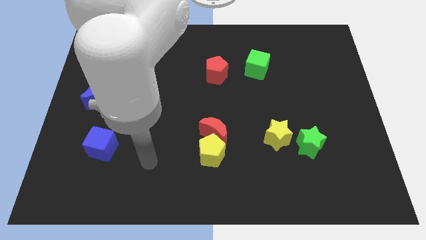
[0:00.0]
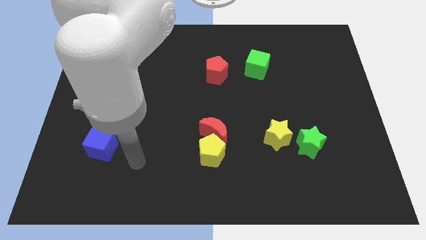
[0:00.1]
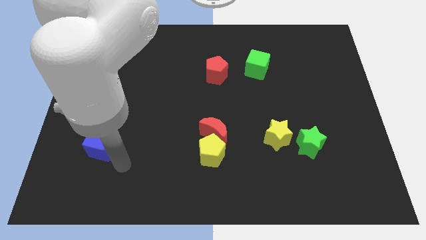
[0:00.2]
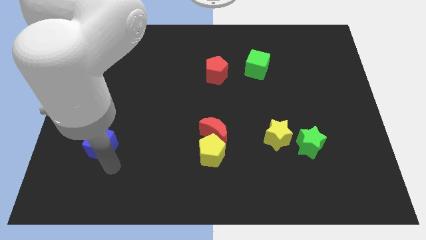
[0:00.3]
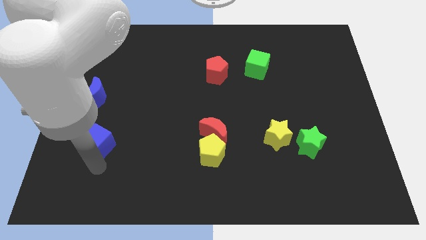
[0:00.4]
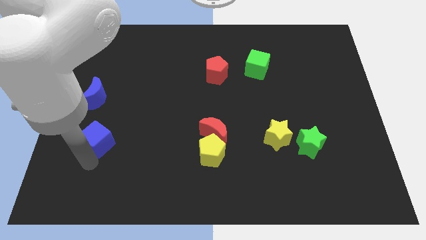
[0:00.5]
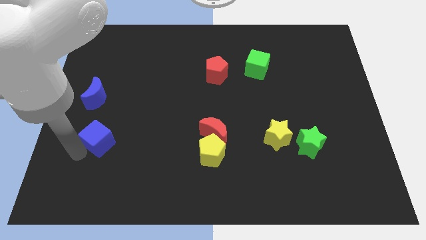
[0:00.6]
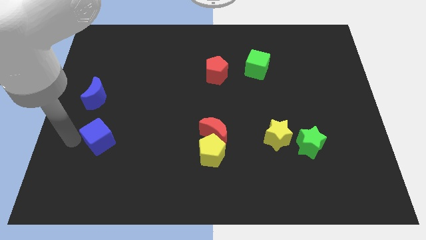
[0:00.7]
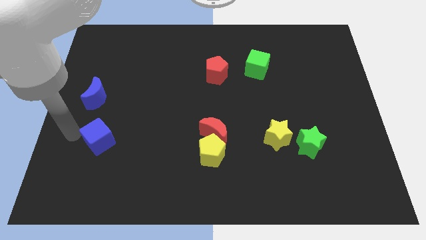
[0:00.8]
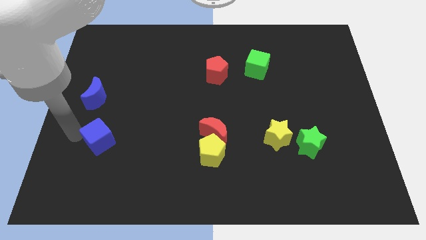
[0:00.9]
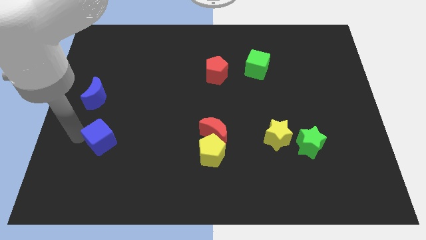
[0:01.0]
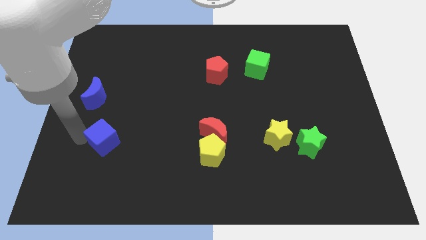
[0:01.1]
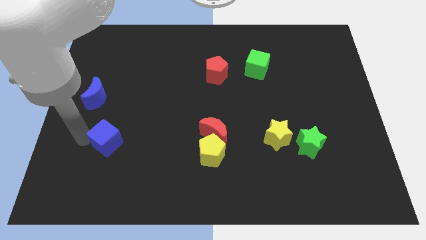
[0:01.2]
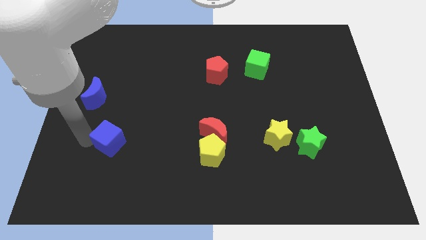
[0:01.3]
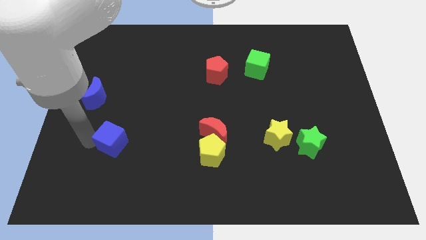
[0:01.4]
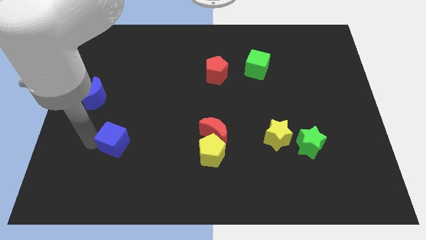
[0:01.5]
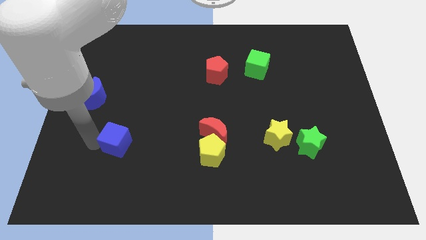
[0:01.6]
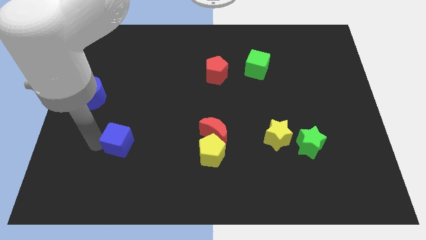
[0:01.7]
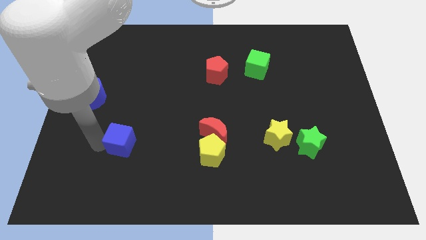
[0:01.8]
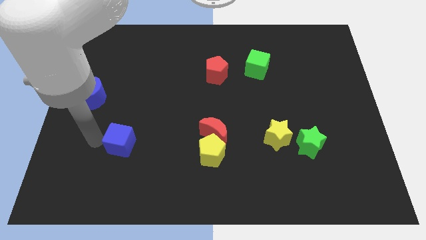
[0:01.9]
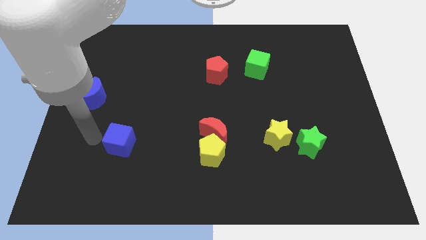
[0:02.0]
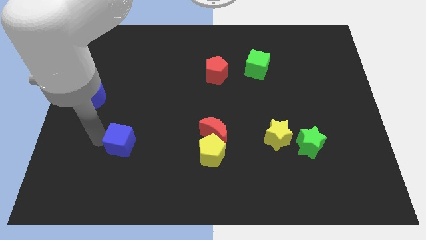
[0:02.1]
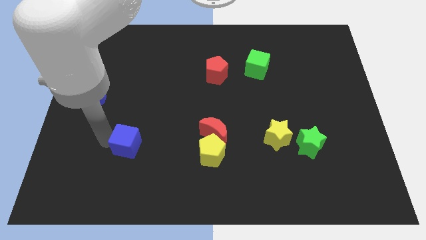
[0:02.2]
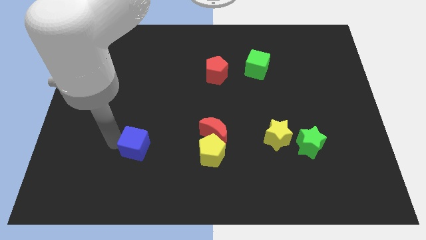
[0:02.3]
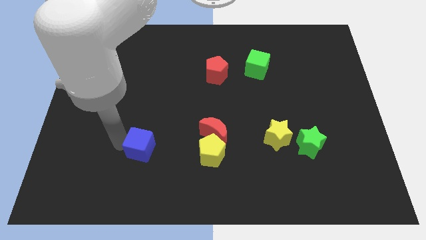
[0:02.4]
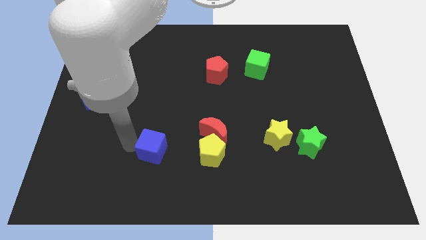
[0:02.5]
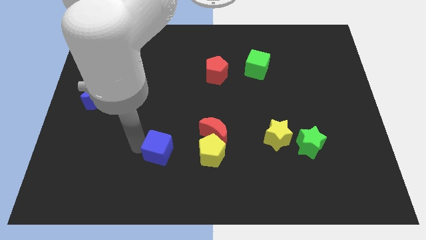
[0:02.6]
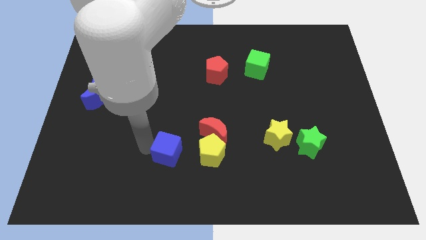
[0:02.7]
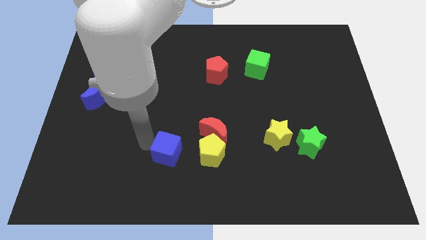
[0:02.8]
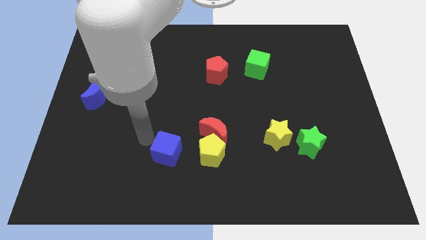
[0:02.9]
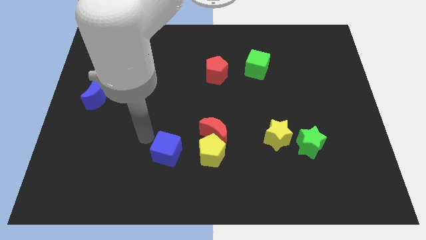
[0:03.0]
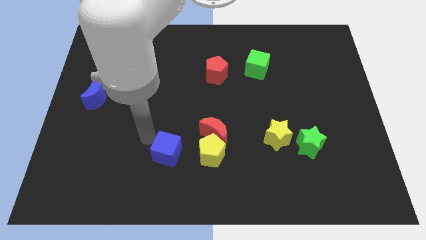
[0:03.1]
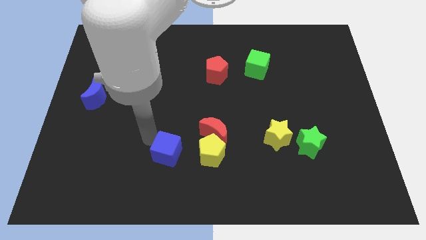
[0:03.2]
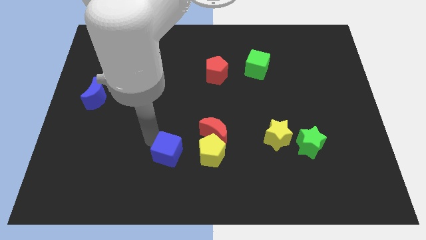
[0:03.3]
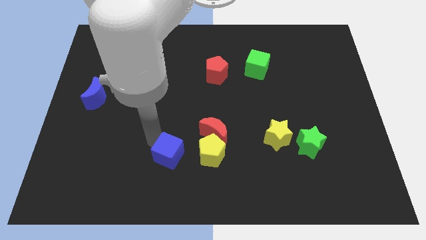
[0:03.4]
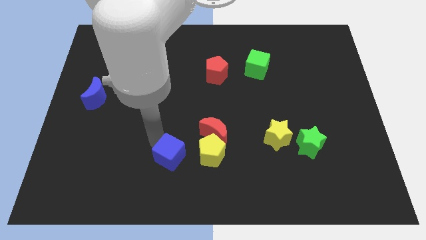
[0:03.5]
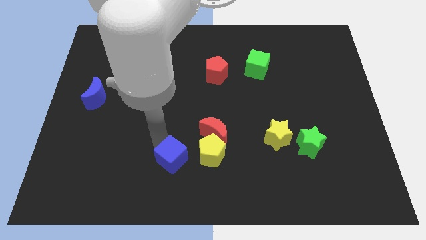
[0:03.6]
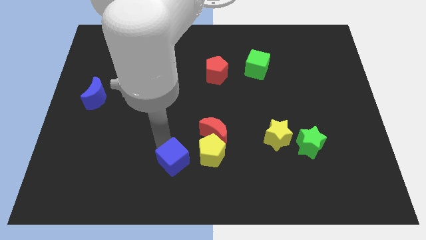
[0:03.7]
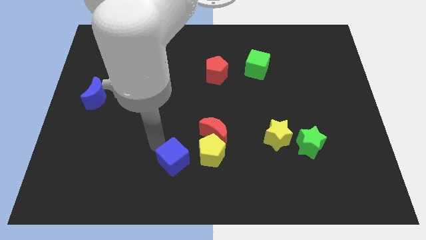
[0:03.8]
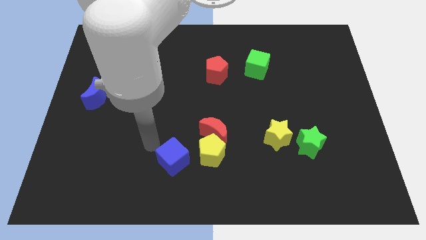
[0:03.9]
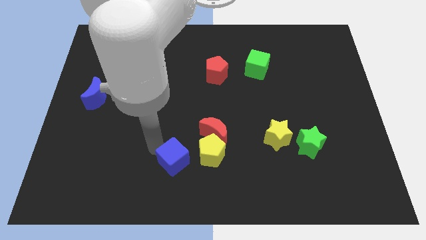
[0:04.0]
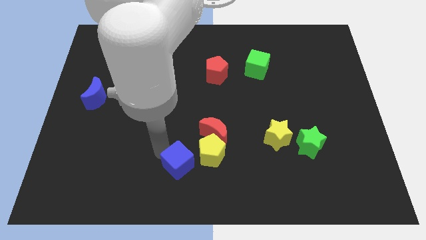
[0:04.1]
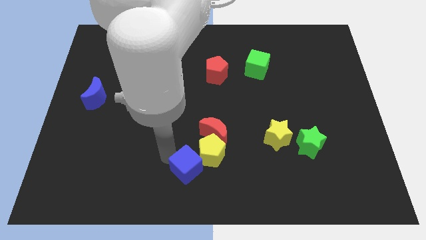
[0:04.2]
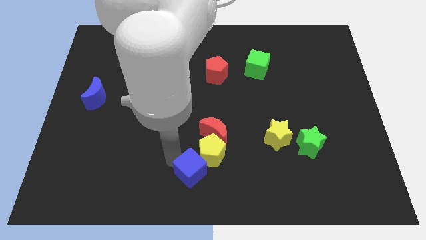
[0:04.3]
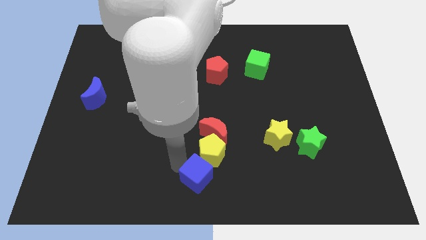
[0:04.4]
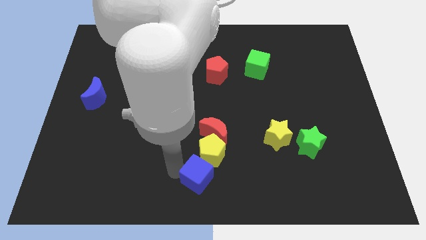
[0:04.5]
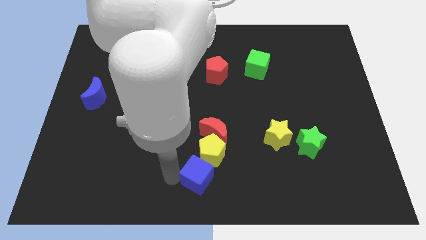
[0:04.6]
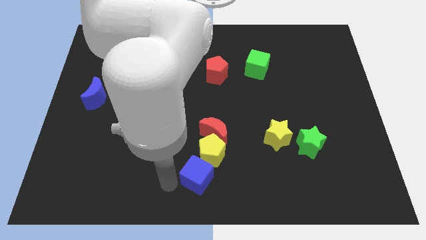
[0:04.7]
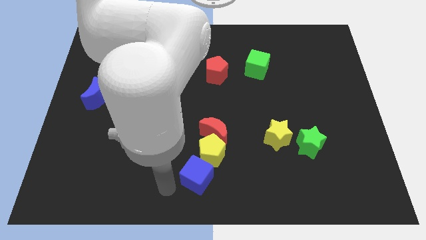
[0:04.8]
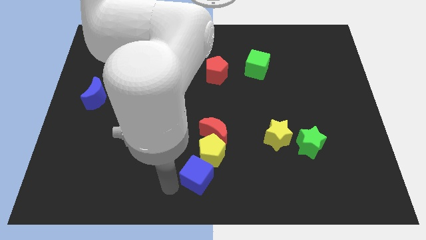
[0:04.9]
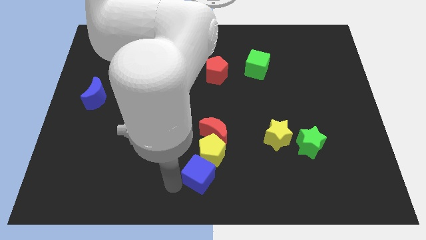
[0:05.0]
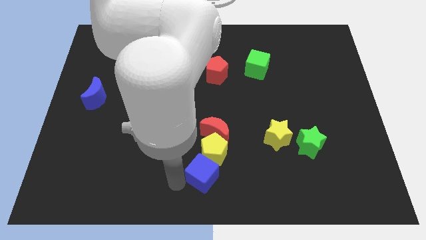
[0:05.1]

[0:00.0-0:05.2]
push the blue cube right

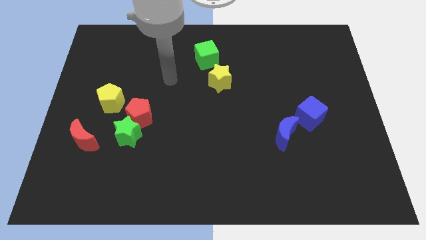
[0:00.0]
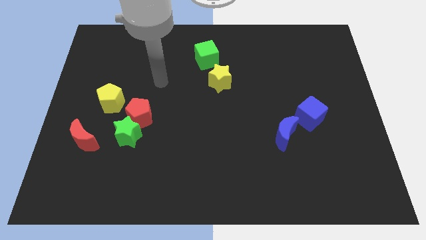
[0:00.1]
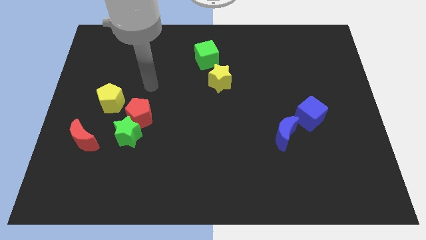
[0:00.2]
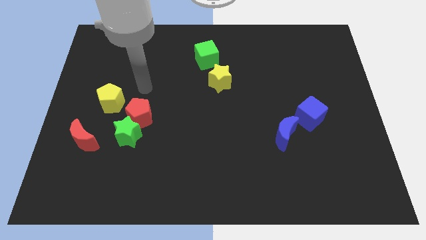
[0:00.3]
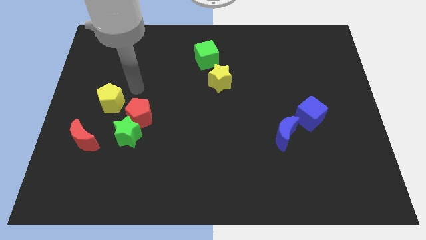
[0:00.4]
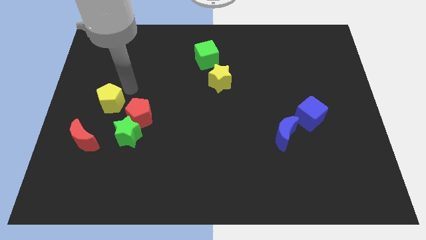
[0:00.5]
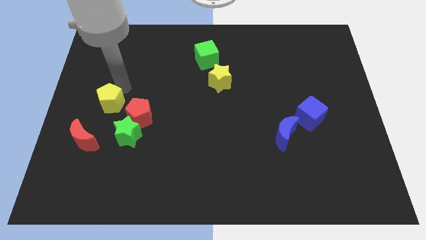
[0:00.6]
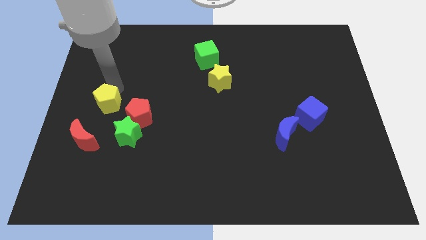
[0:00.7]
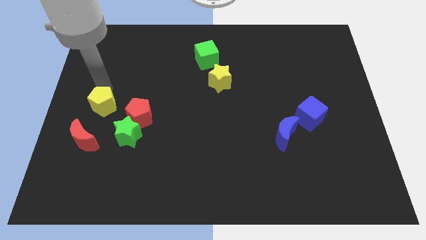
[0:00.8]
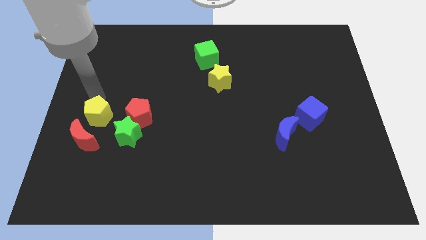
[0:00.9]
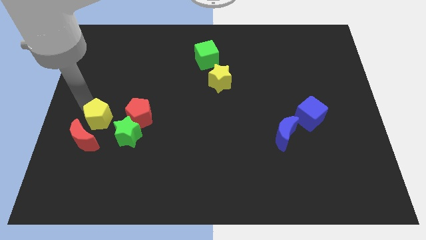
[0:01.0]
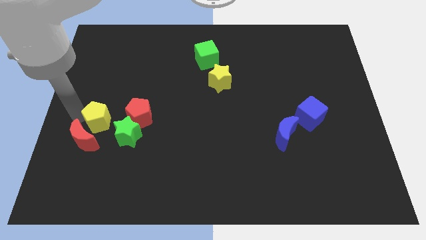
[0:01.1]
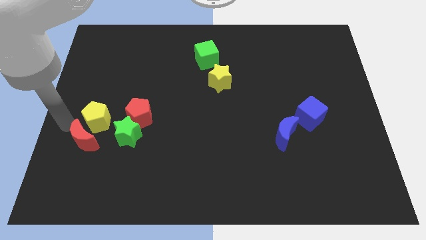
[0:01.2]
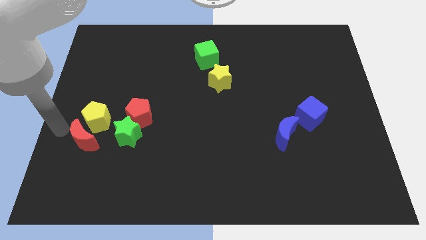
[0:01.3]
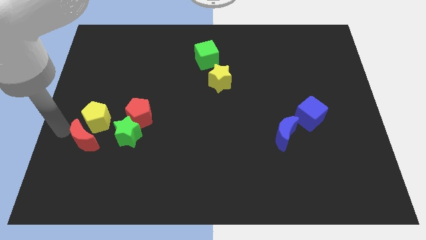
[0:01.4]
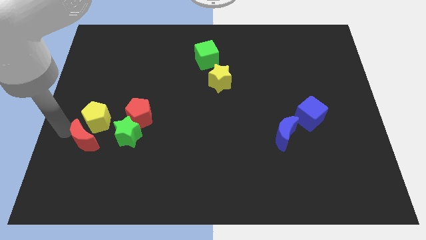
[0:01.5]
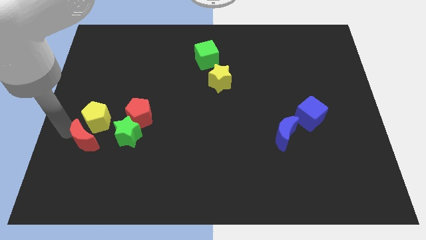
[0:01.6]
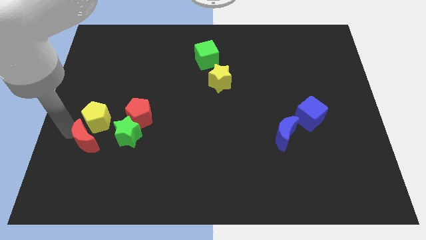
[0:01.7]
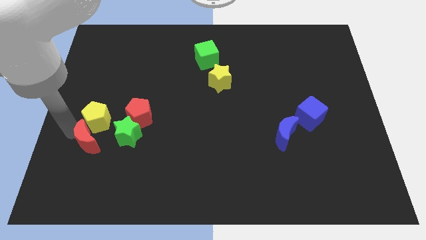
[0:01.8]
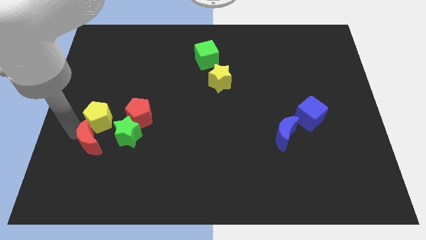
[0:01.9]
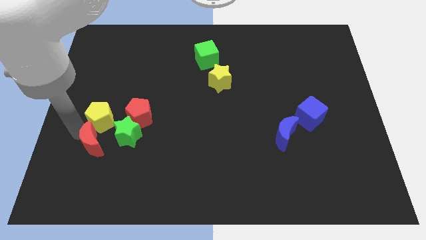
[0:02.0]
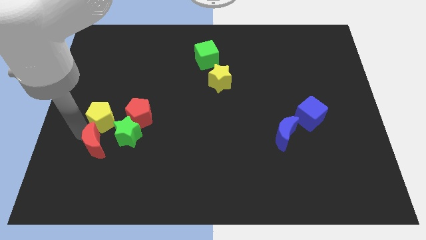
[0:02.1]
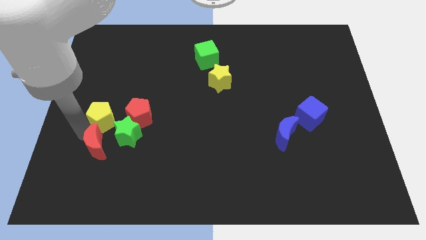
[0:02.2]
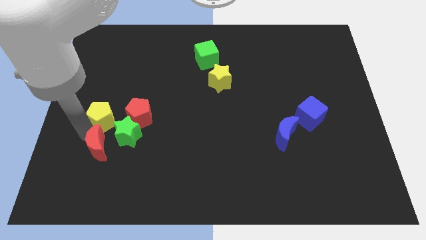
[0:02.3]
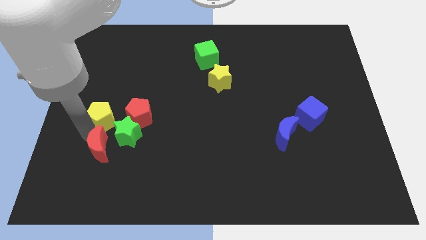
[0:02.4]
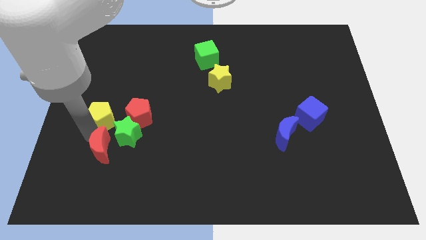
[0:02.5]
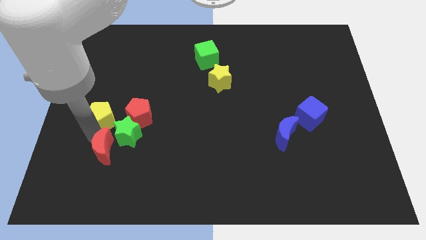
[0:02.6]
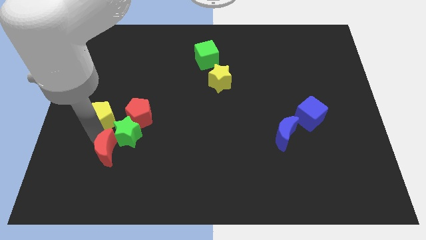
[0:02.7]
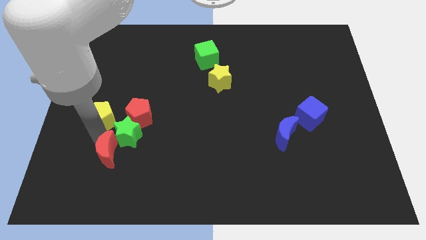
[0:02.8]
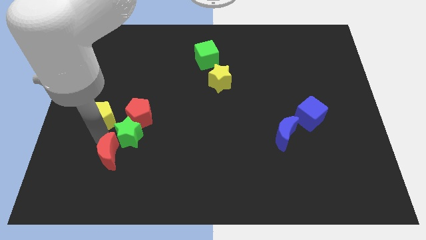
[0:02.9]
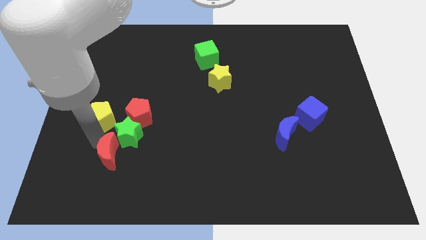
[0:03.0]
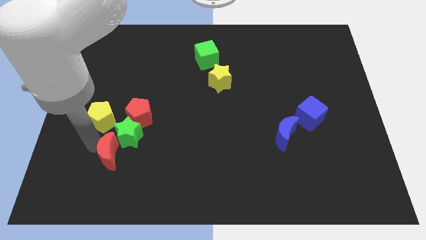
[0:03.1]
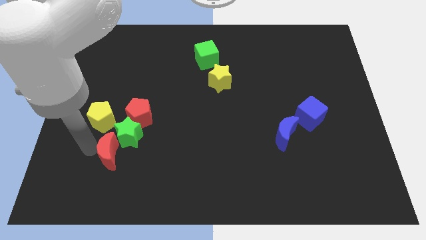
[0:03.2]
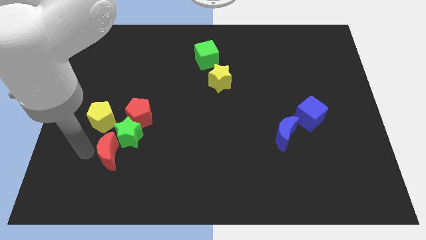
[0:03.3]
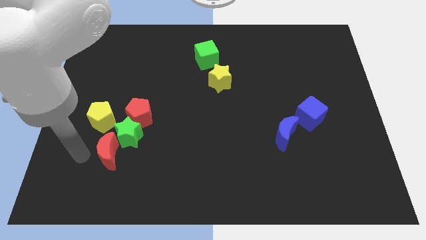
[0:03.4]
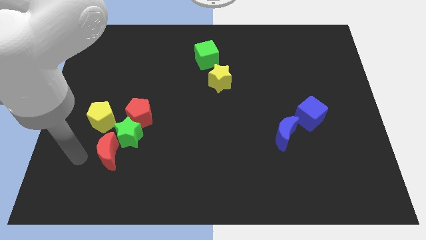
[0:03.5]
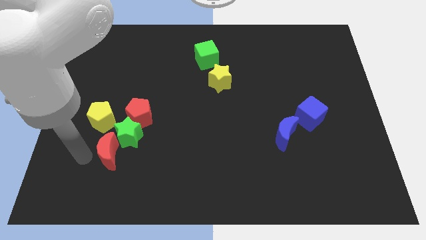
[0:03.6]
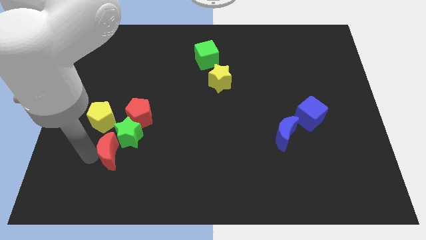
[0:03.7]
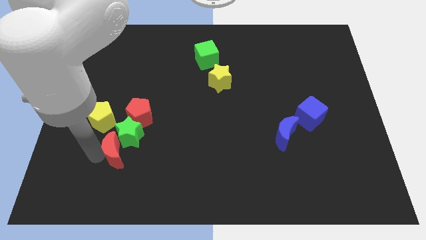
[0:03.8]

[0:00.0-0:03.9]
slightly move the red moon right
